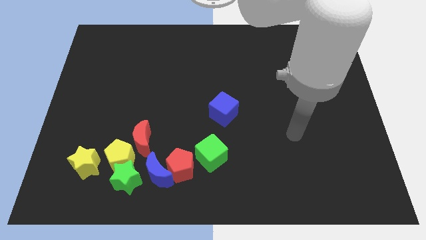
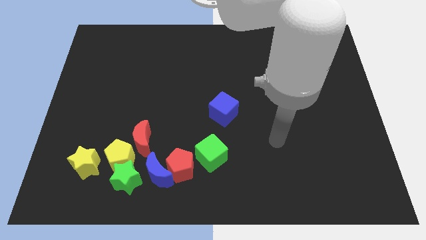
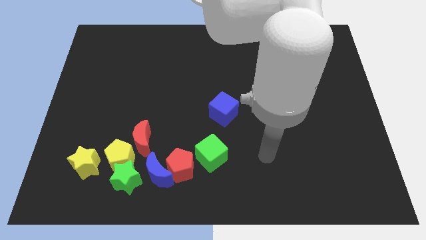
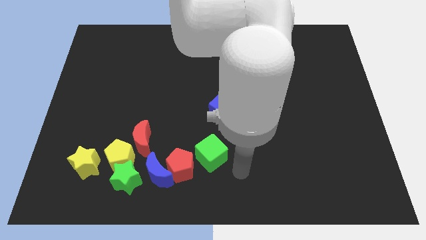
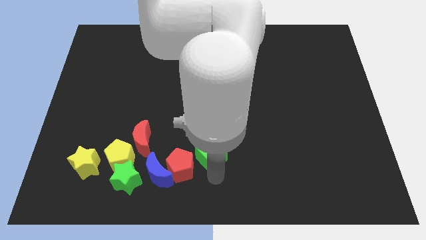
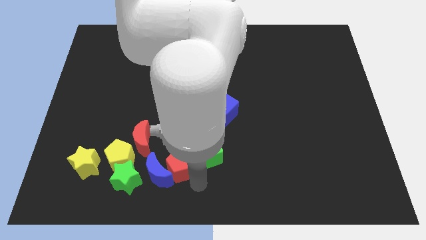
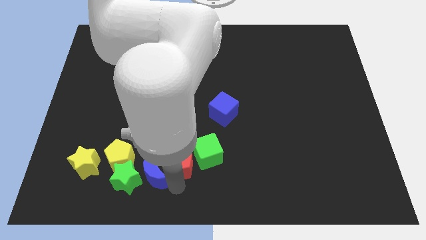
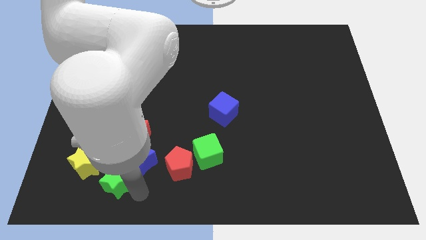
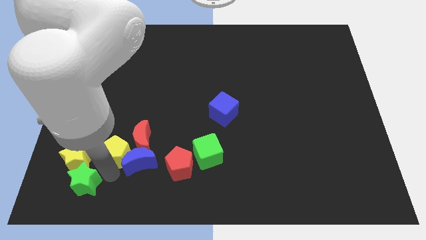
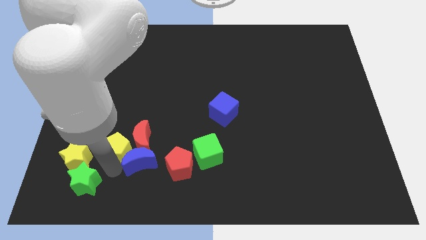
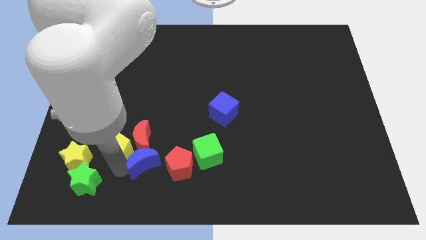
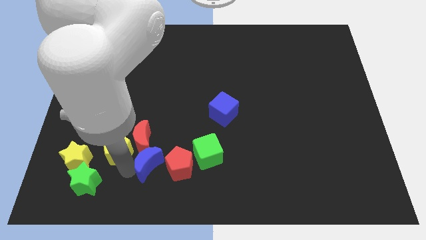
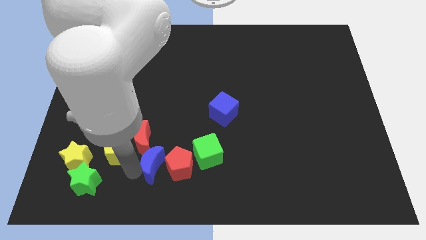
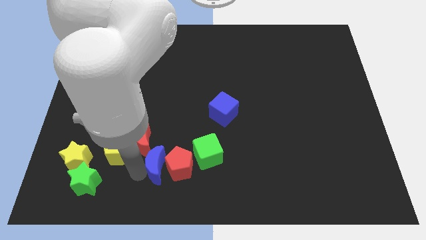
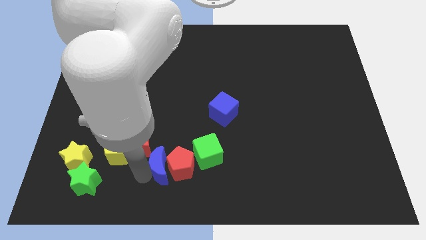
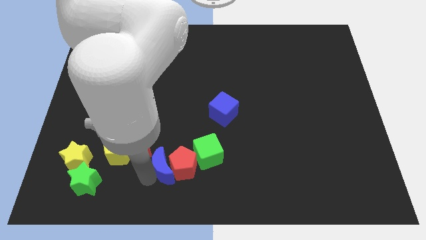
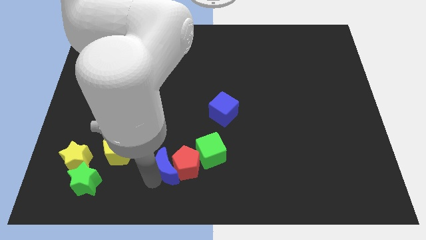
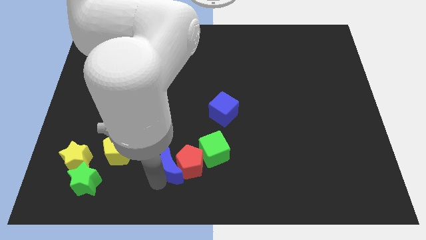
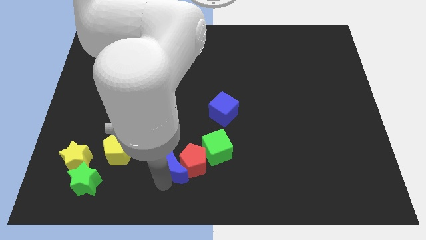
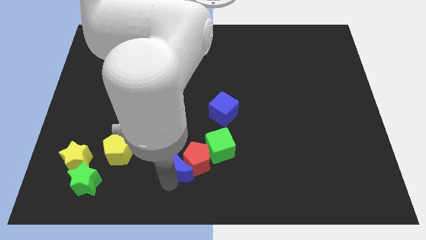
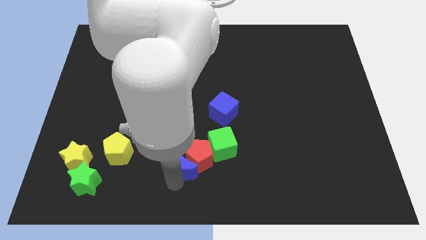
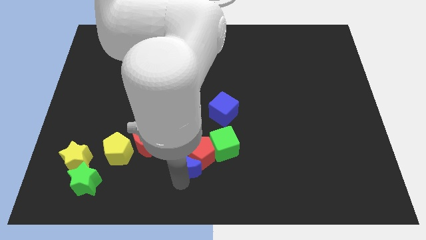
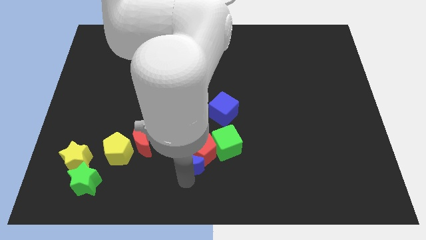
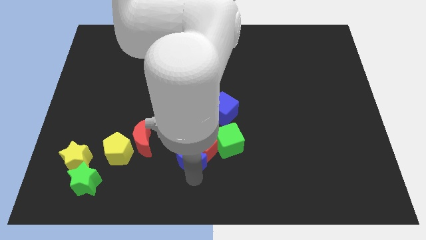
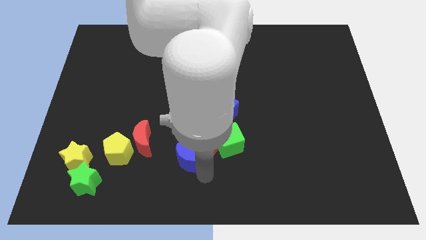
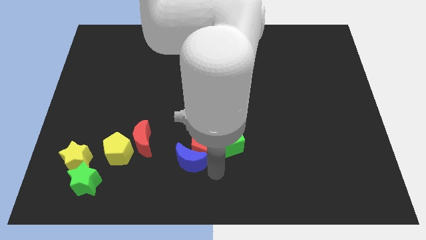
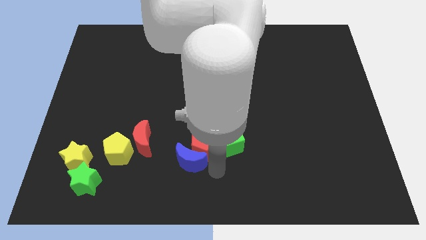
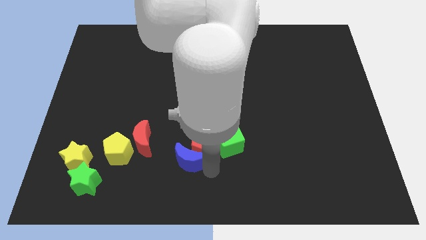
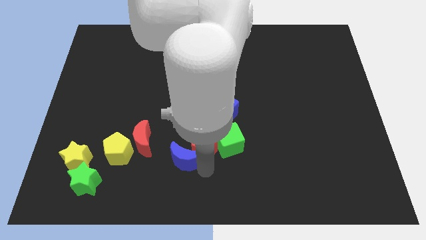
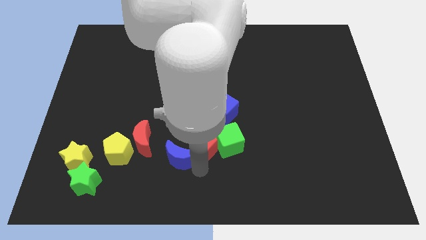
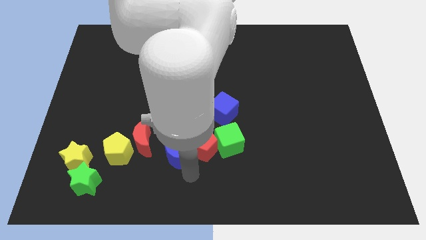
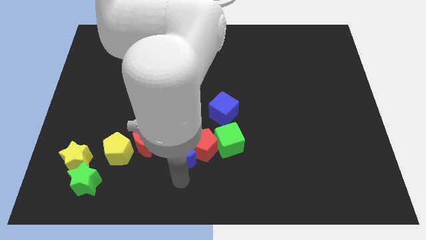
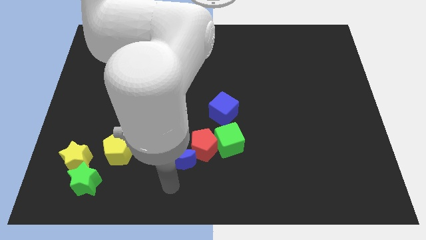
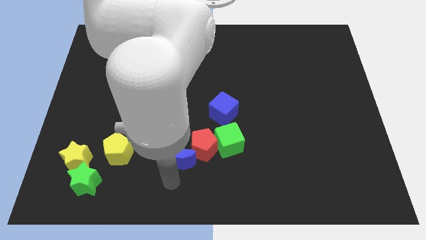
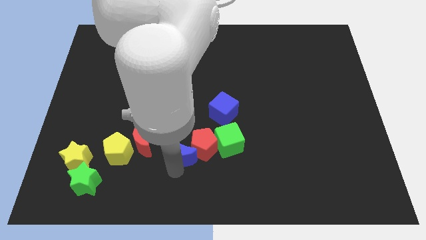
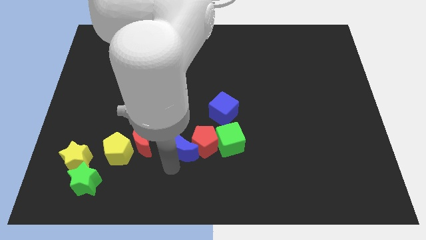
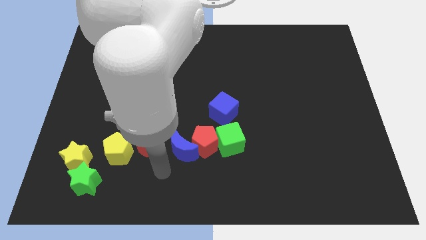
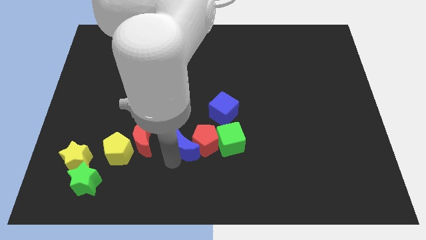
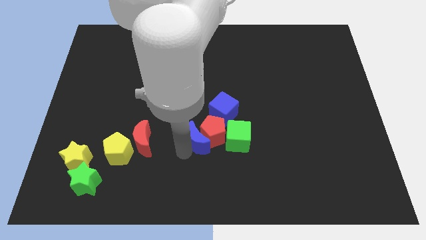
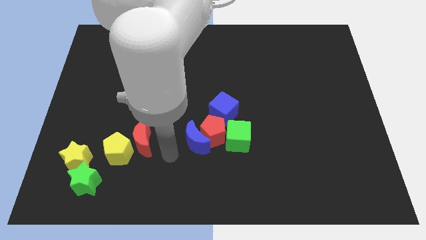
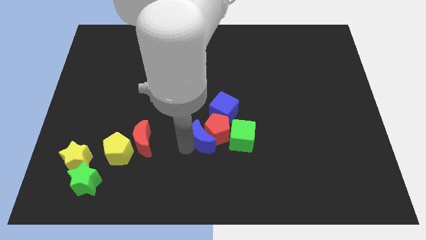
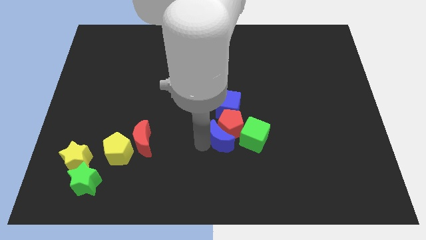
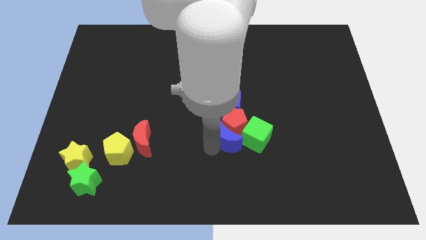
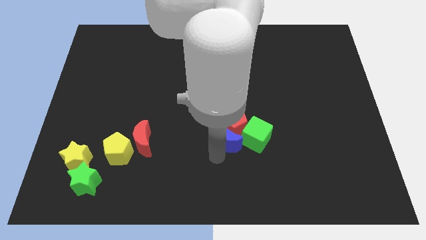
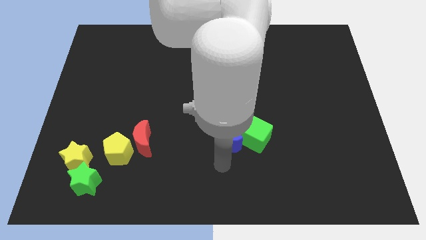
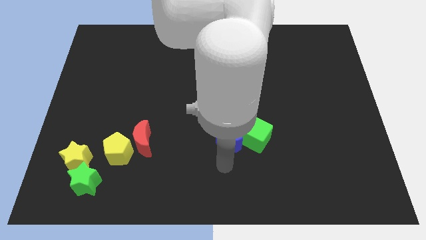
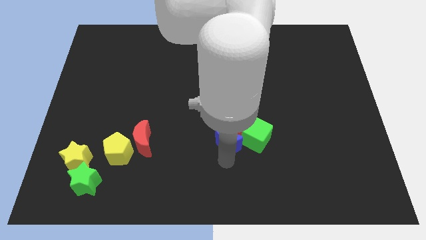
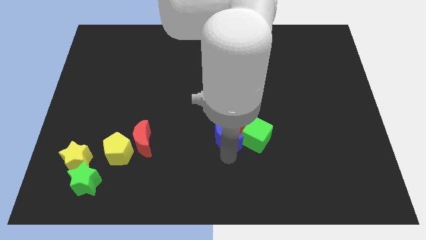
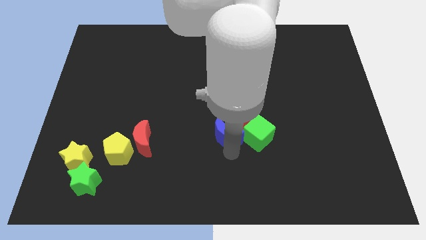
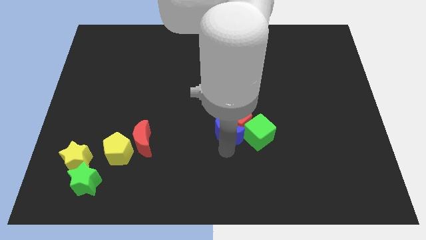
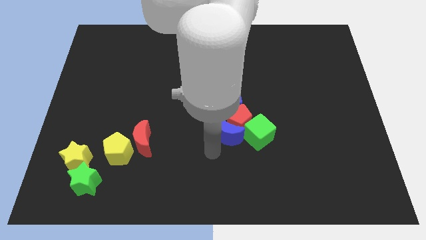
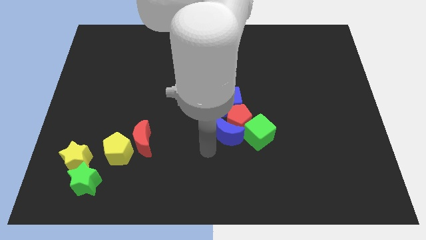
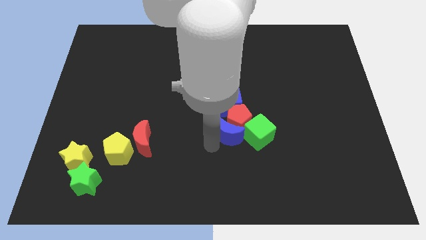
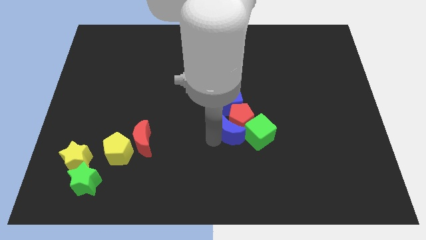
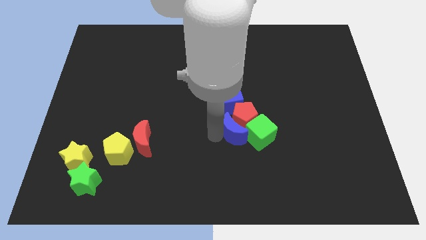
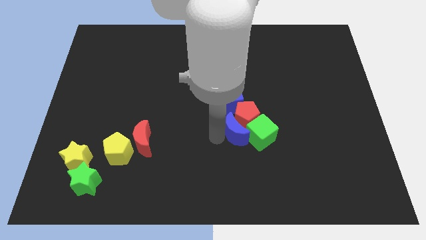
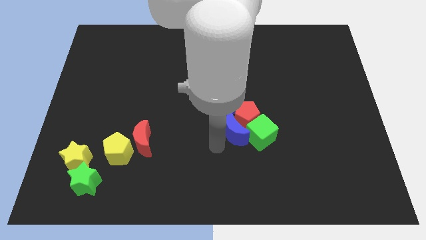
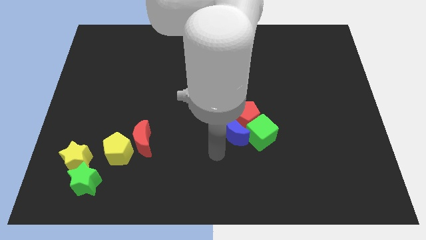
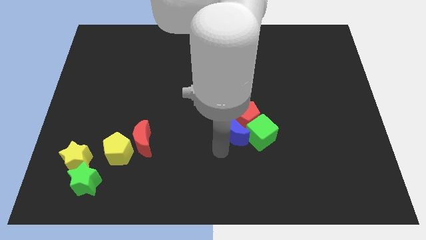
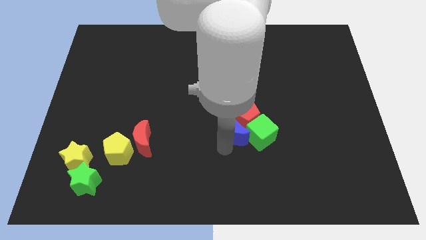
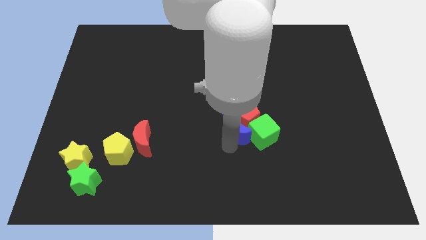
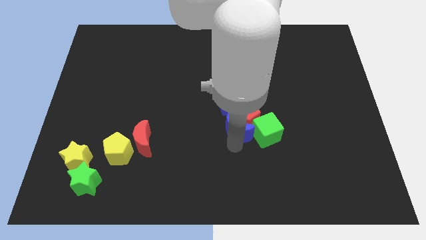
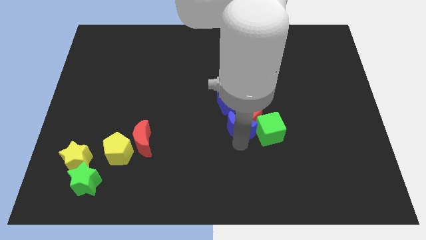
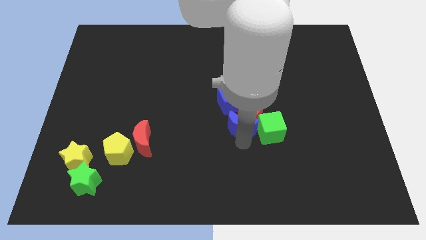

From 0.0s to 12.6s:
move the blue moon diagonally up and to the right

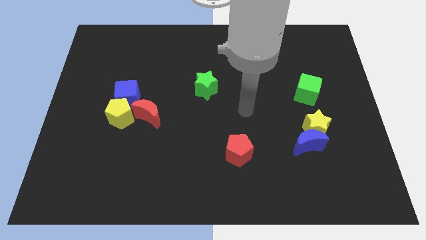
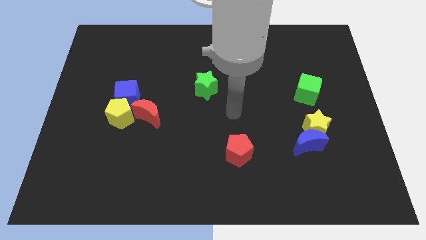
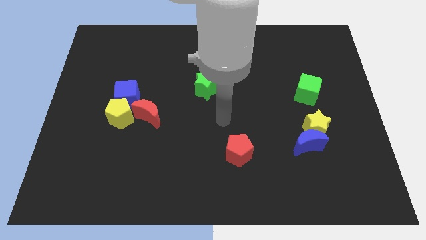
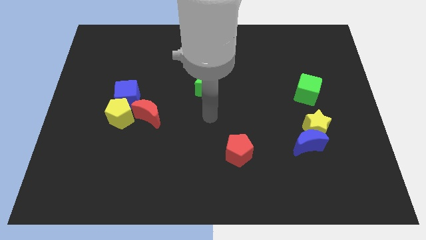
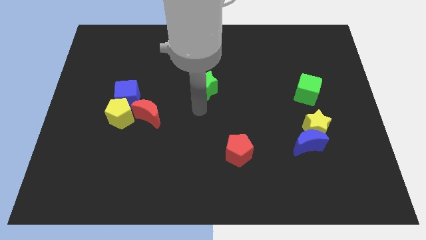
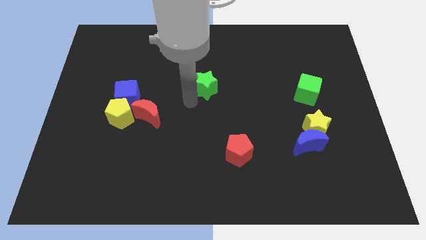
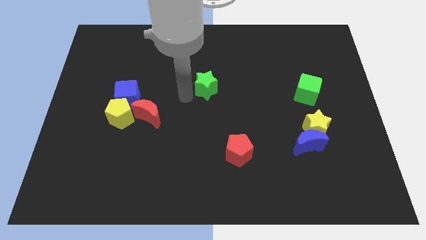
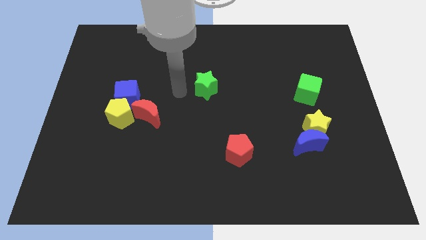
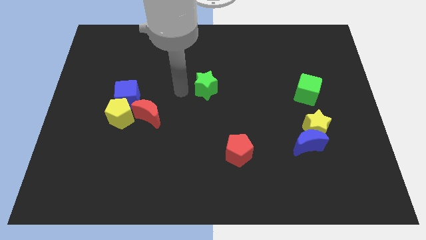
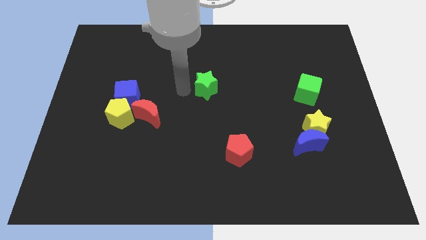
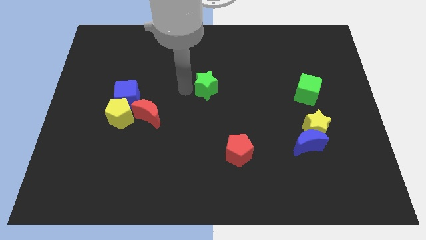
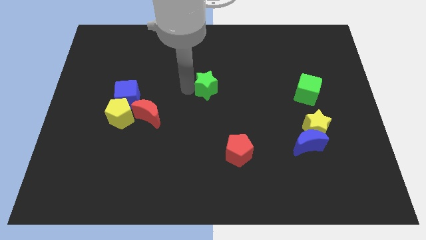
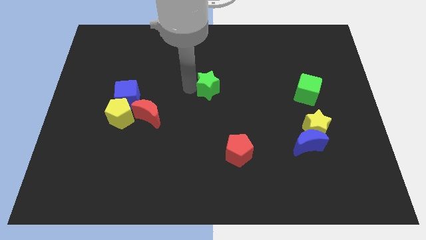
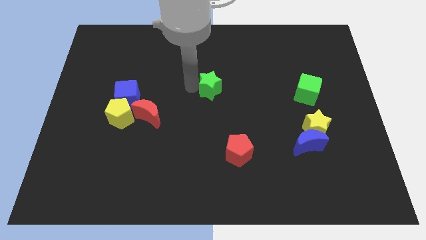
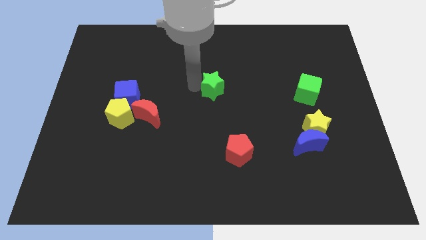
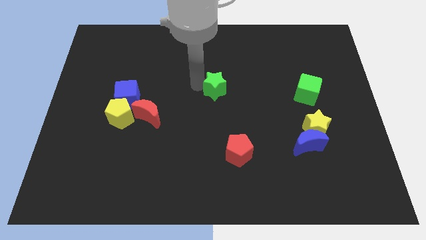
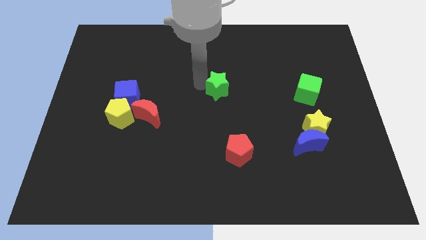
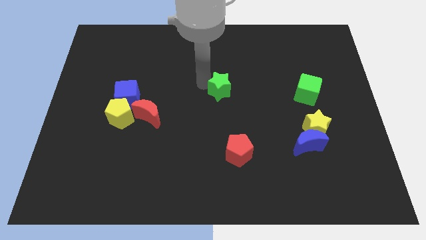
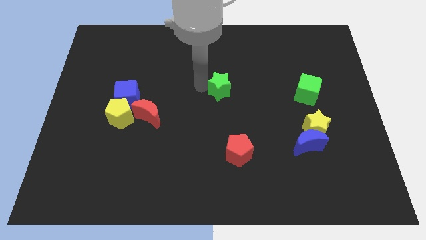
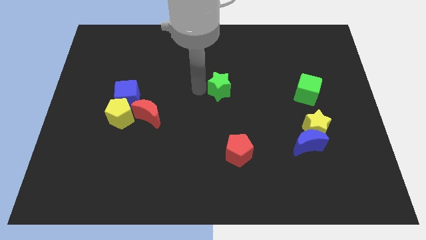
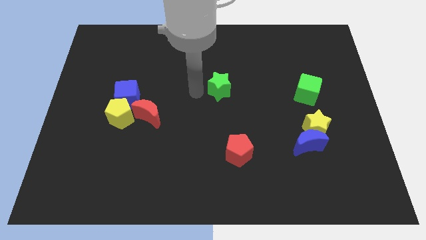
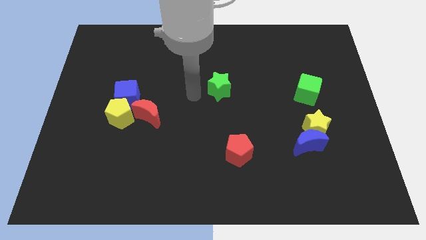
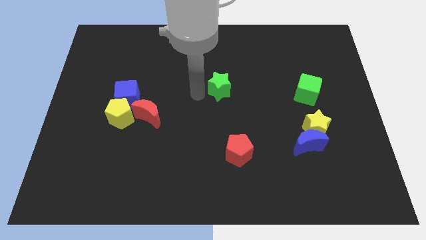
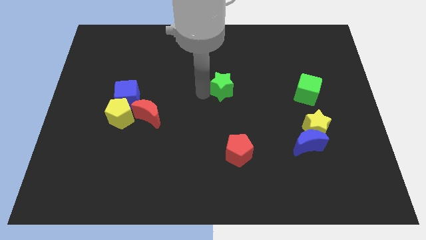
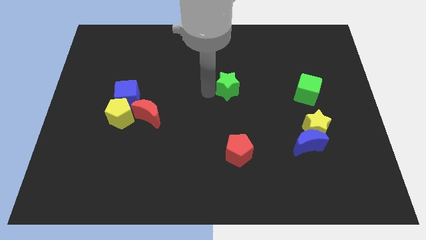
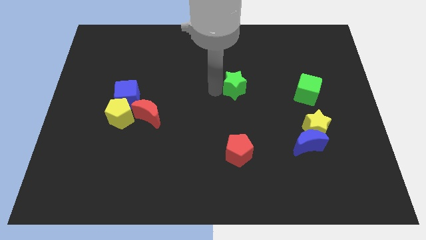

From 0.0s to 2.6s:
slide the green star to the right a bit
